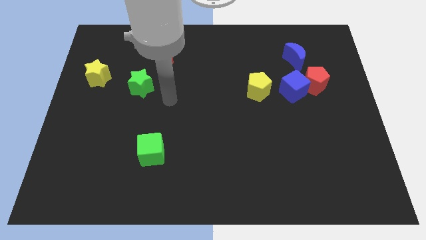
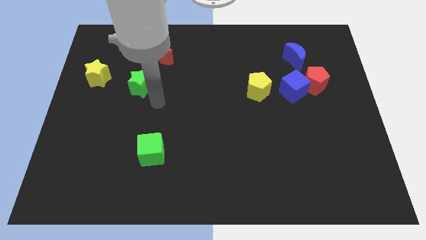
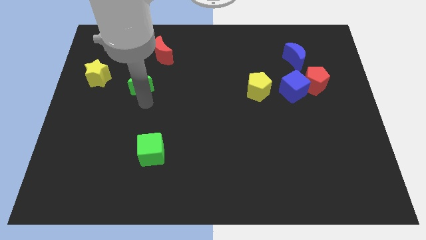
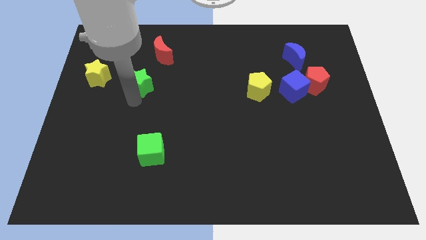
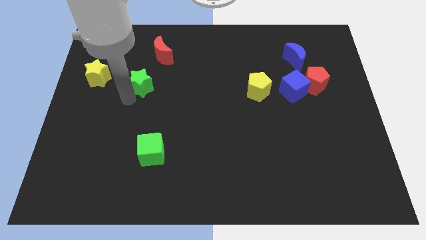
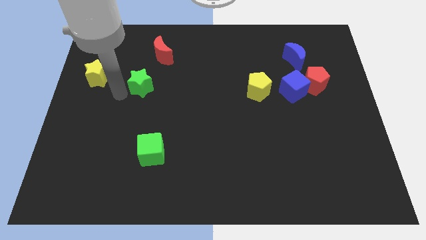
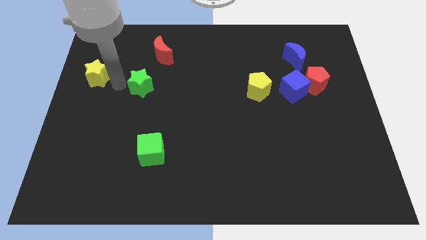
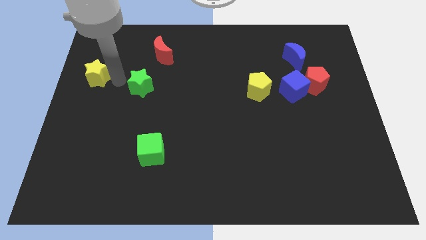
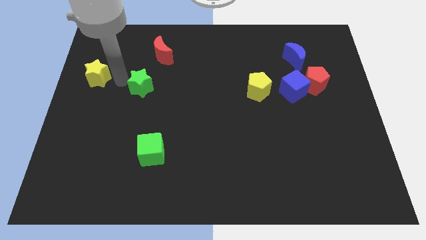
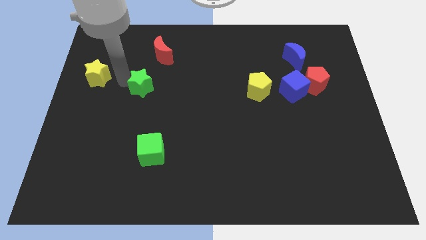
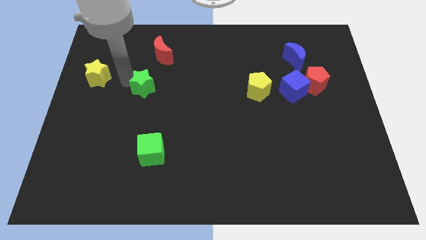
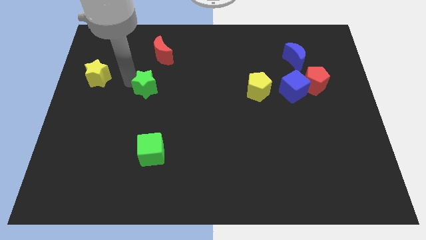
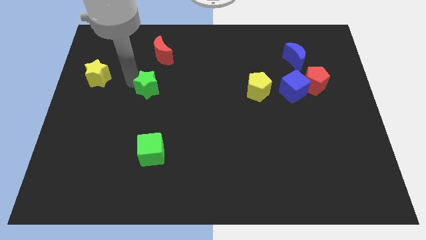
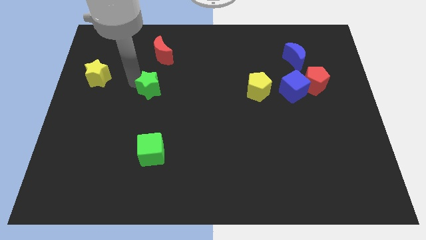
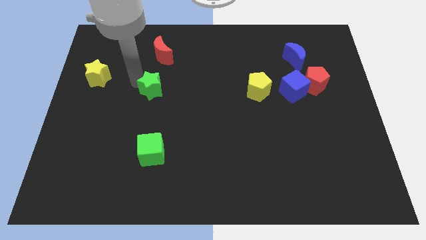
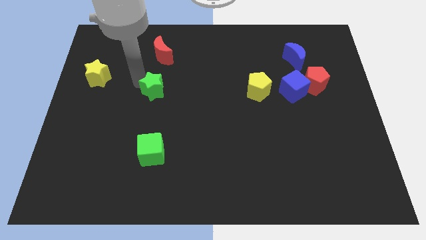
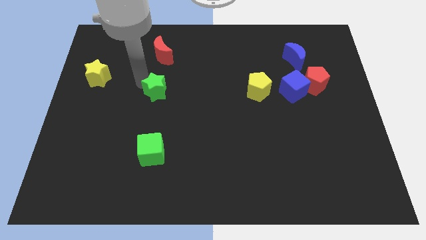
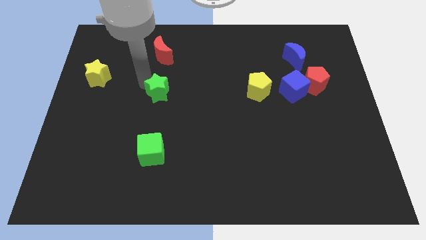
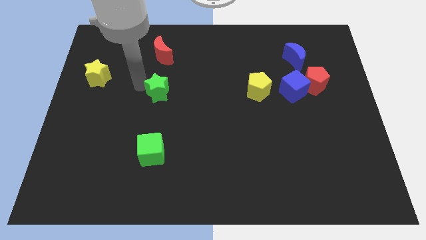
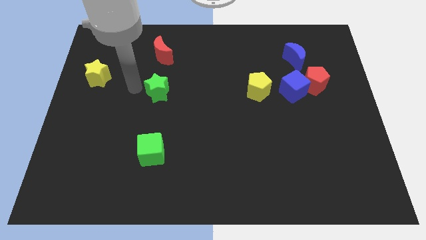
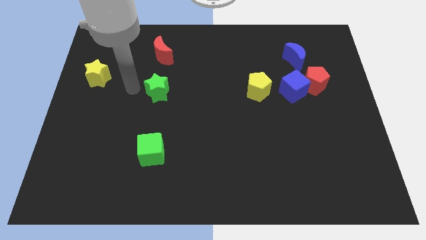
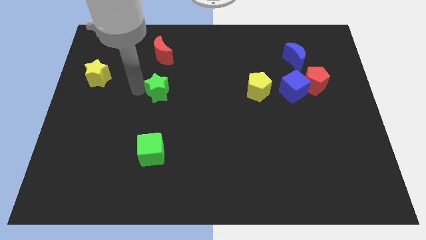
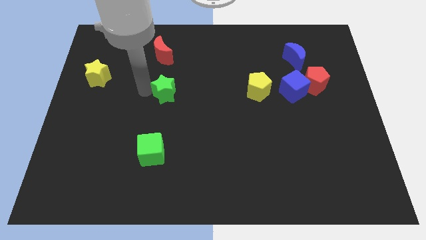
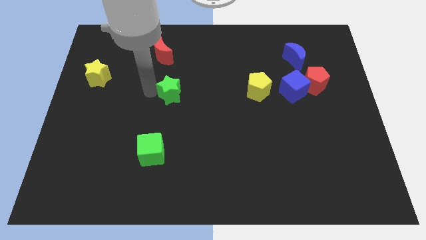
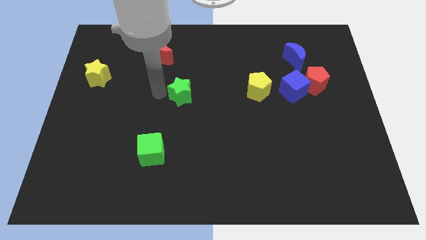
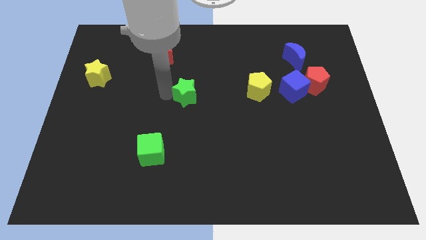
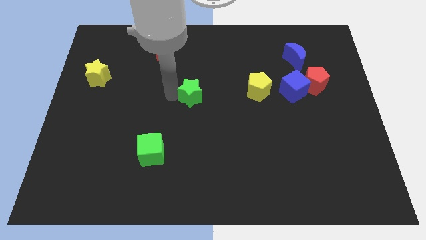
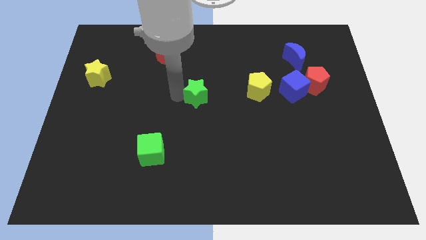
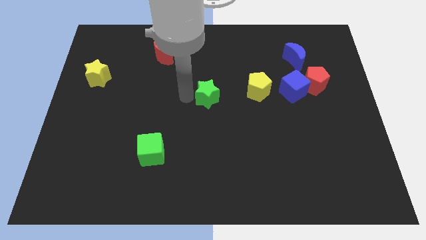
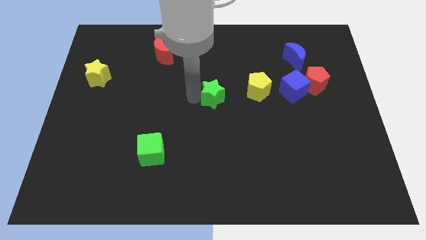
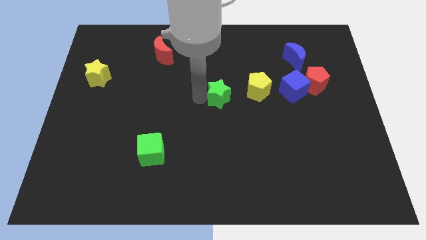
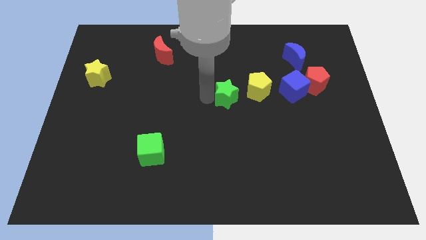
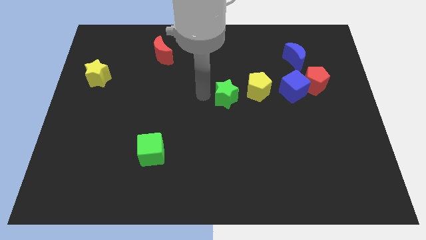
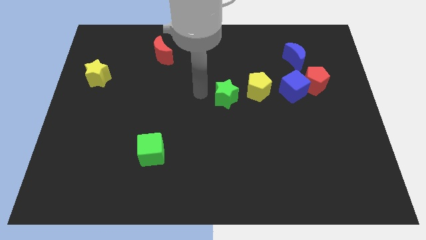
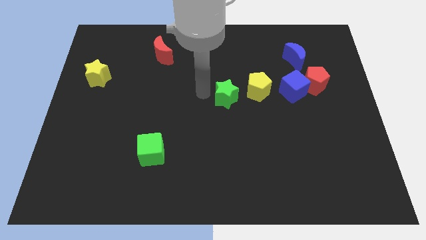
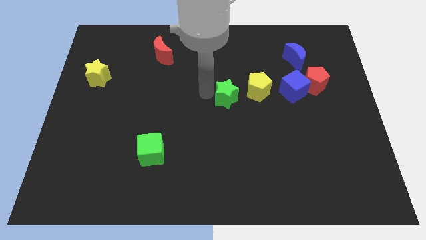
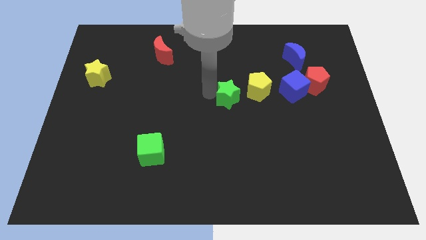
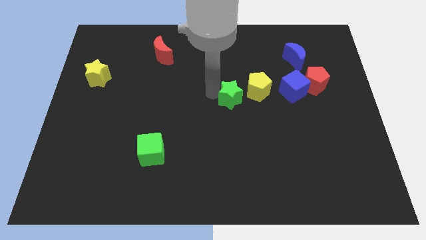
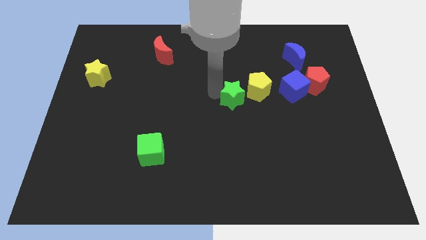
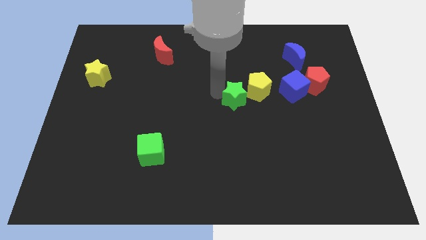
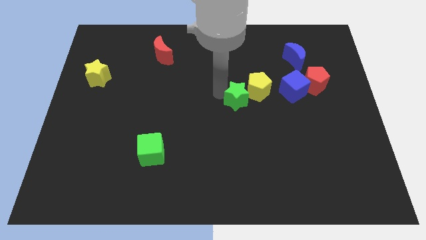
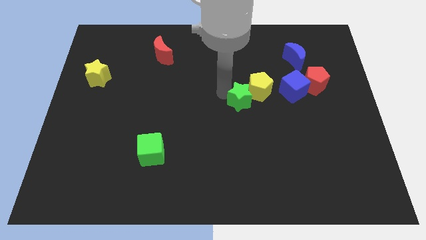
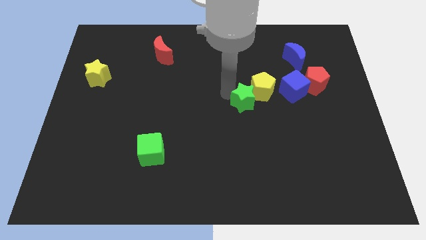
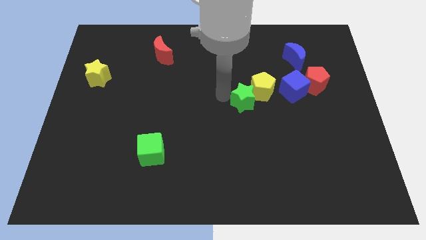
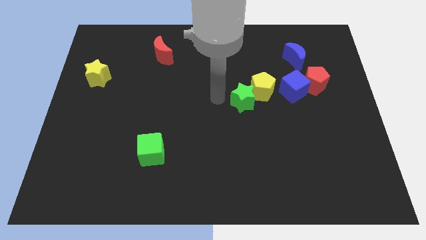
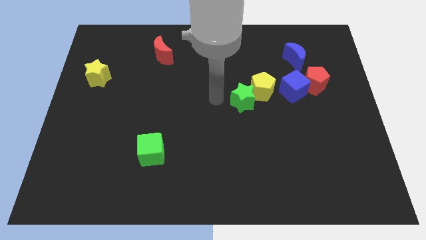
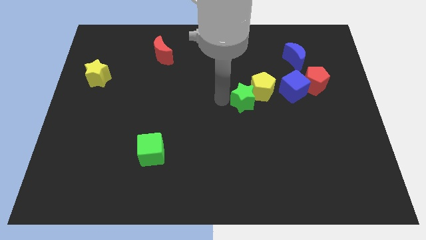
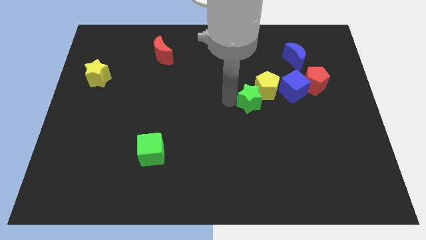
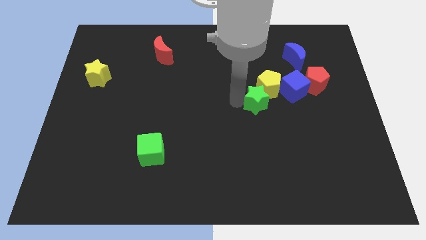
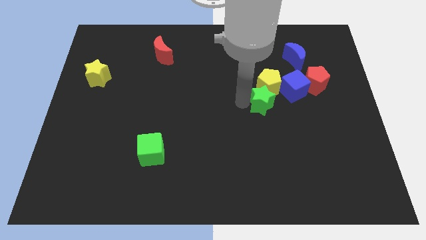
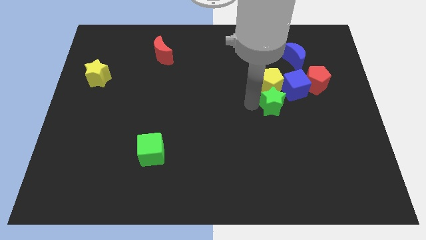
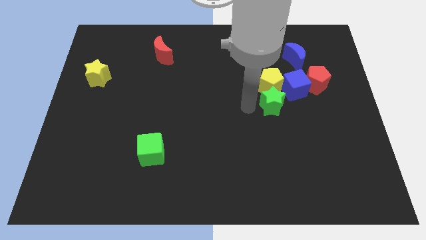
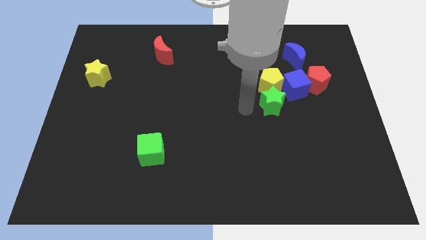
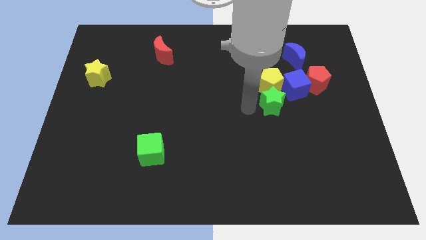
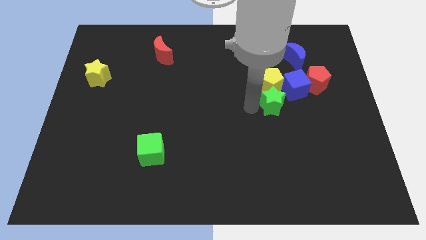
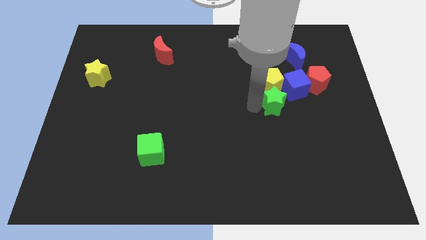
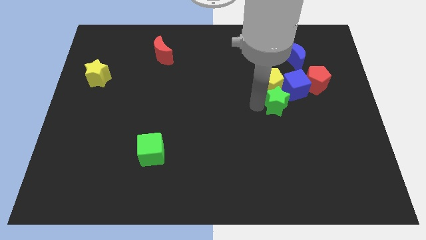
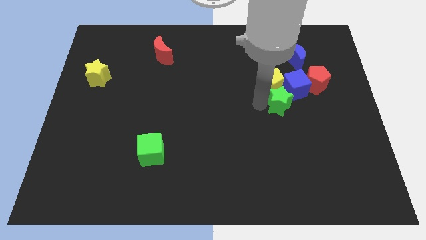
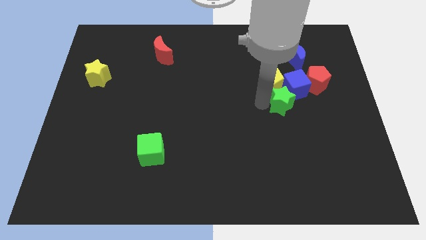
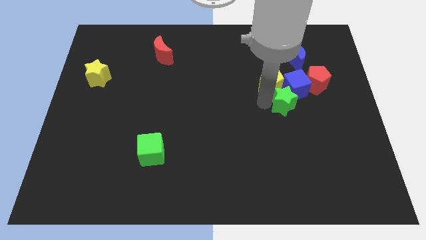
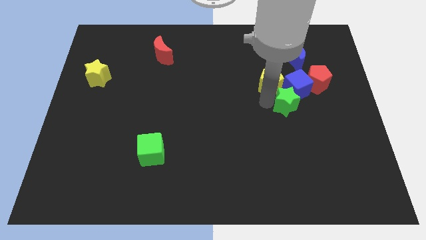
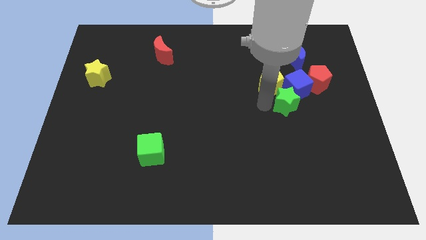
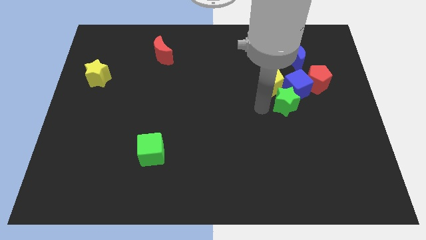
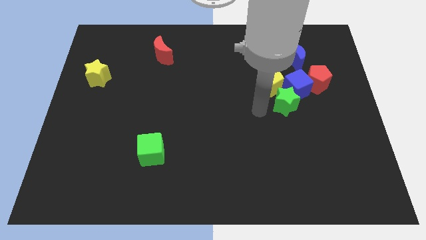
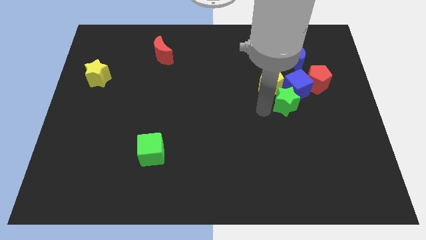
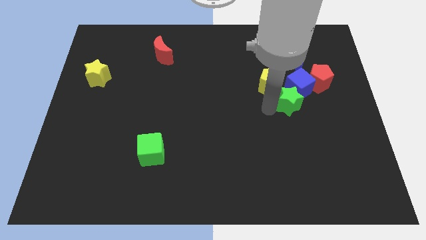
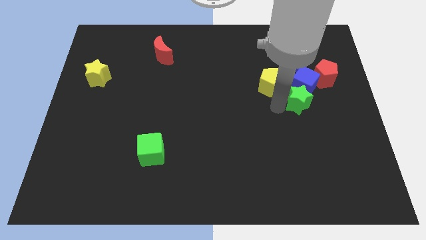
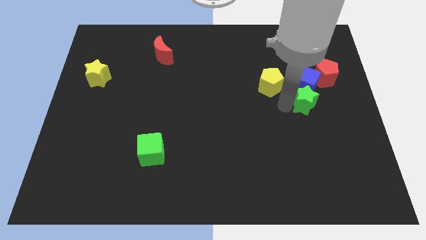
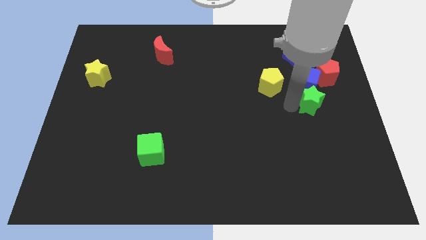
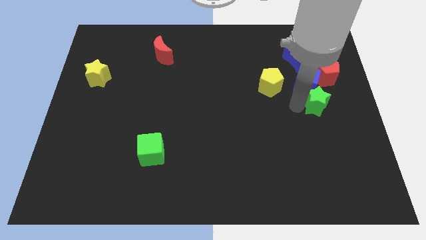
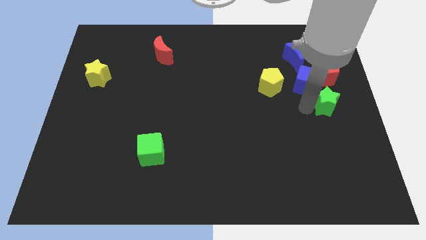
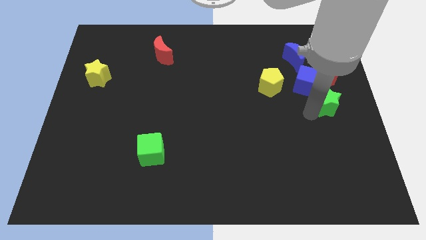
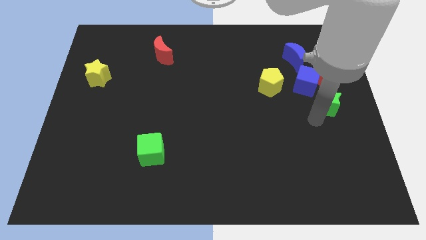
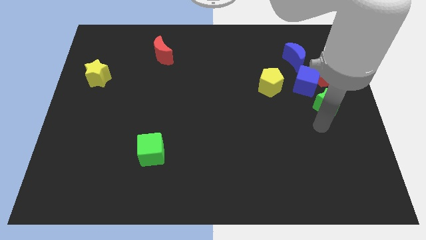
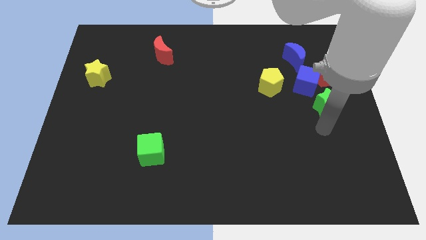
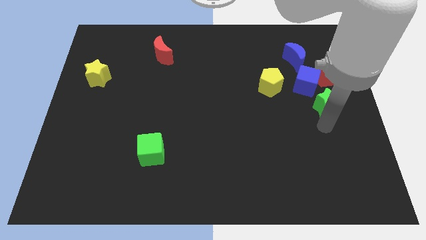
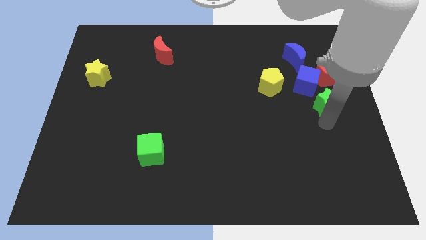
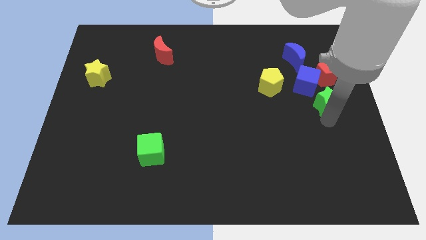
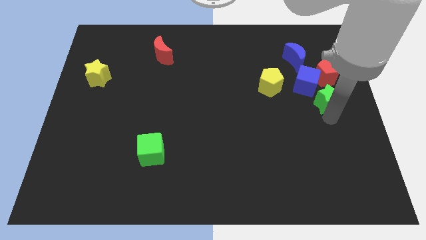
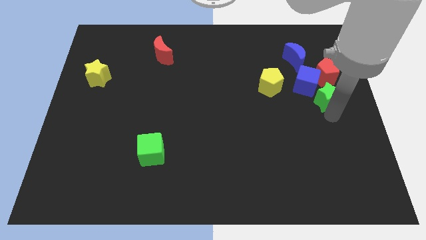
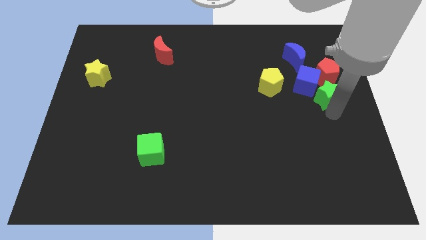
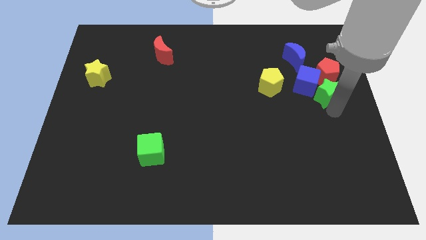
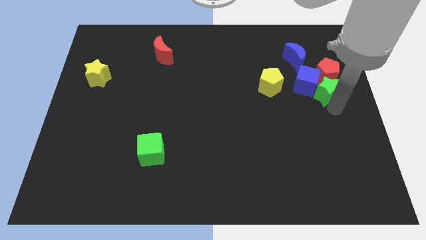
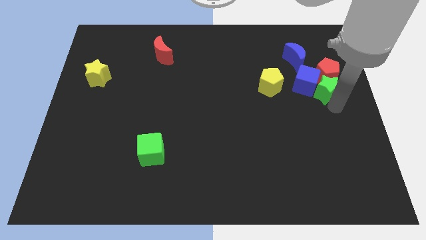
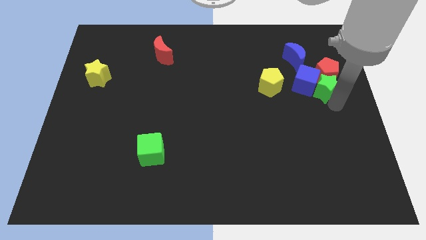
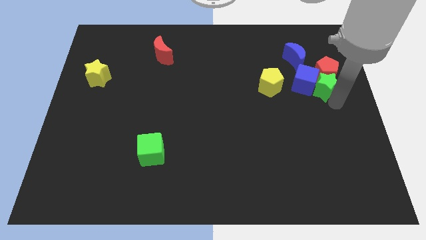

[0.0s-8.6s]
put the green star to the bottom right of the blue moon
